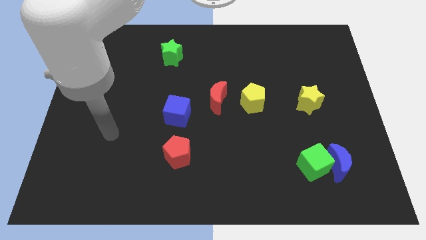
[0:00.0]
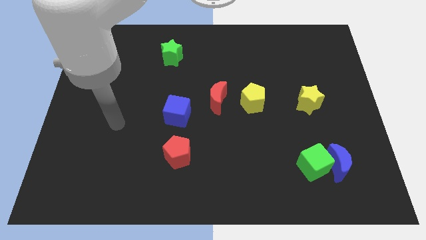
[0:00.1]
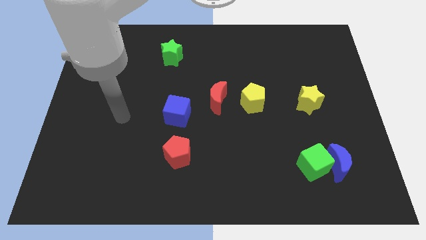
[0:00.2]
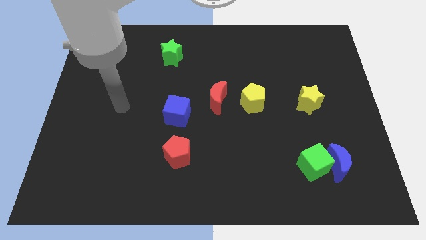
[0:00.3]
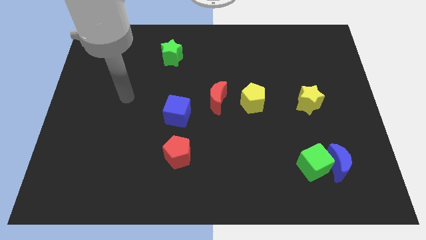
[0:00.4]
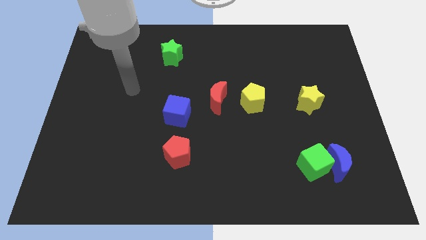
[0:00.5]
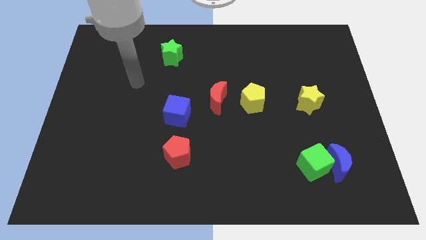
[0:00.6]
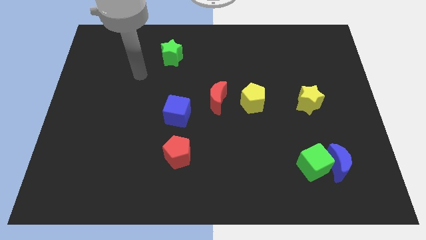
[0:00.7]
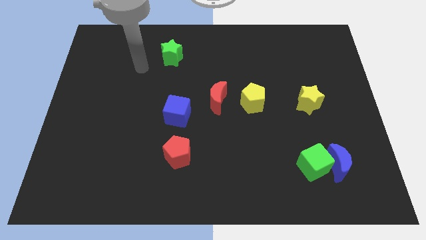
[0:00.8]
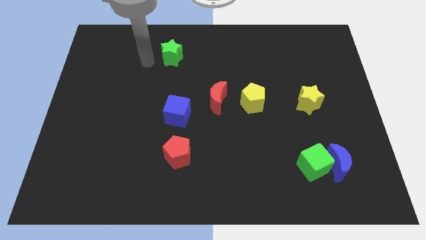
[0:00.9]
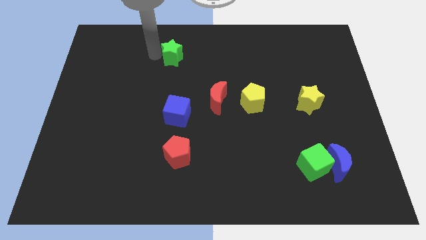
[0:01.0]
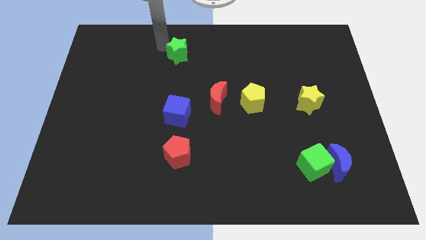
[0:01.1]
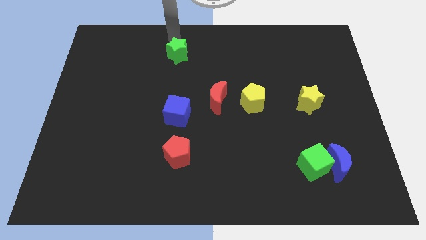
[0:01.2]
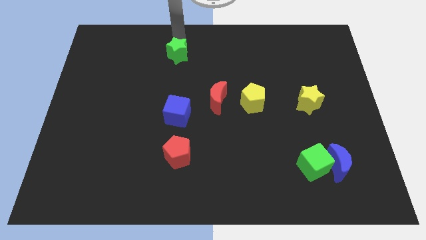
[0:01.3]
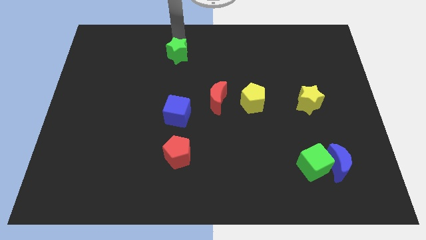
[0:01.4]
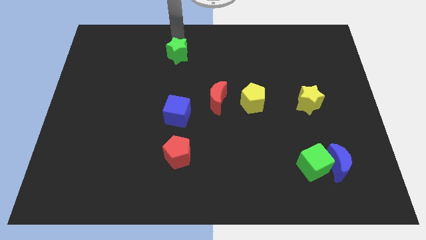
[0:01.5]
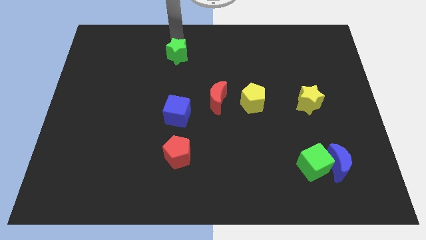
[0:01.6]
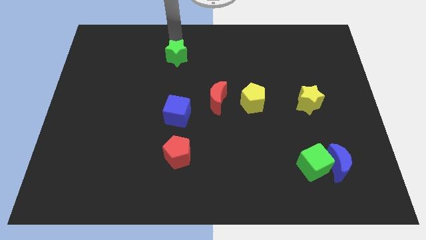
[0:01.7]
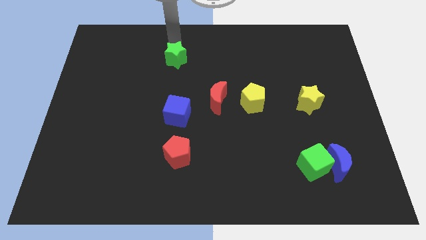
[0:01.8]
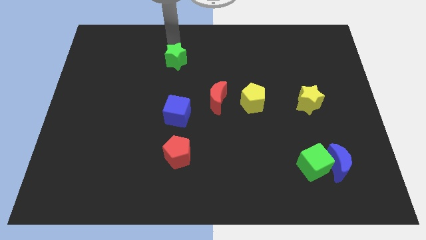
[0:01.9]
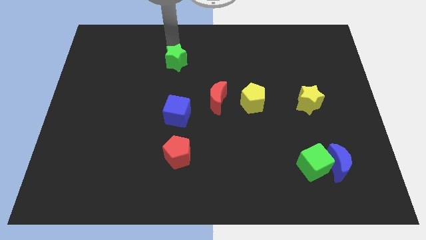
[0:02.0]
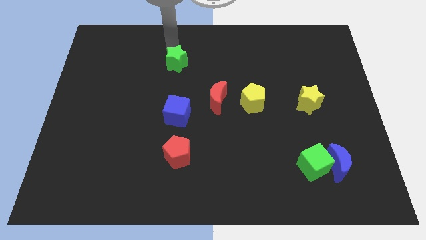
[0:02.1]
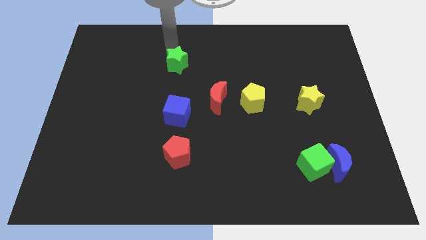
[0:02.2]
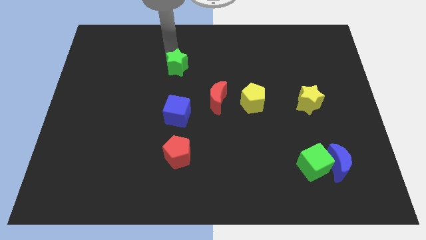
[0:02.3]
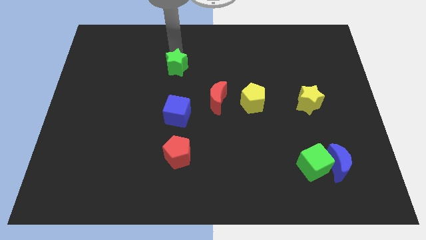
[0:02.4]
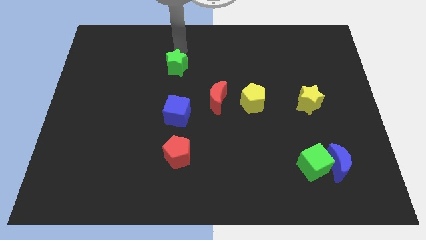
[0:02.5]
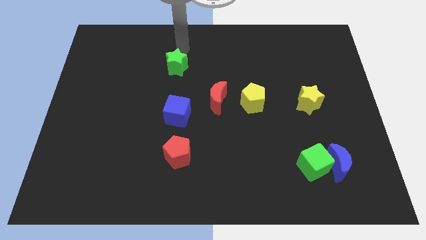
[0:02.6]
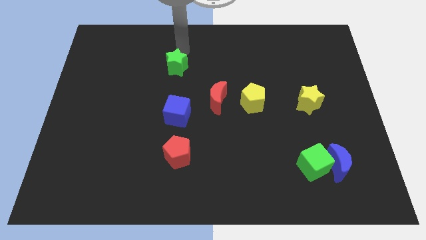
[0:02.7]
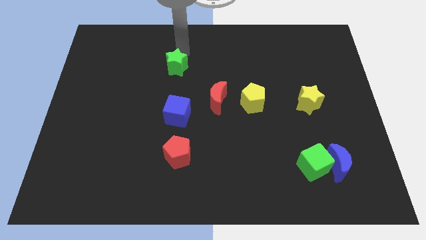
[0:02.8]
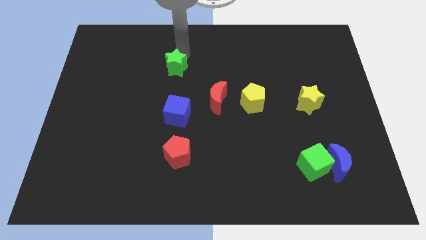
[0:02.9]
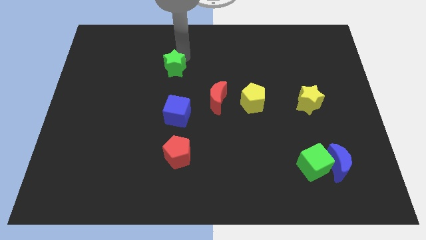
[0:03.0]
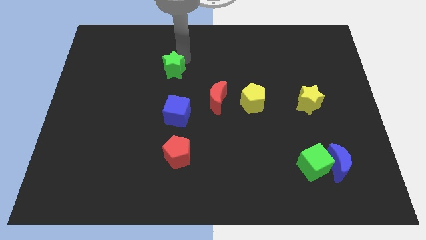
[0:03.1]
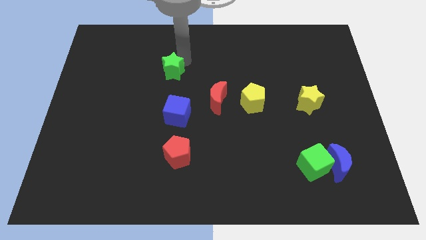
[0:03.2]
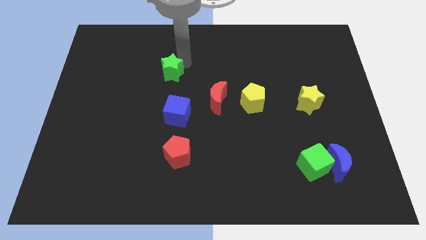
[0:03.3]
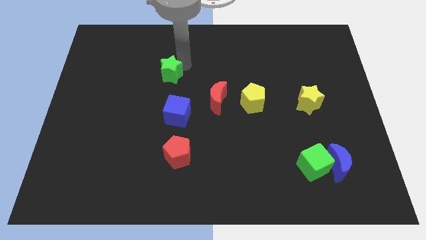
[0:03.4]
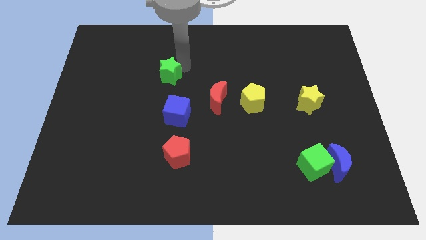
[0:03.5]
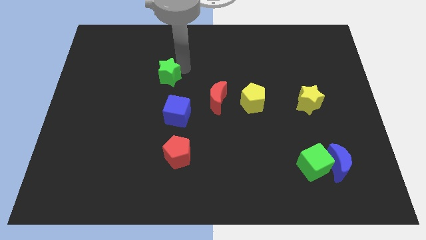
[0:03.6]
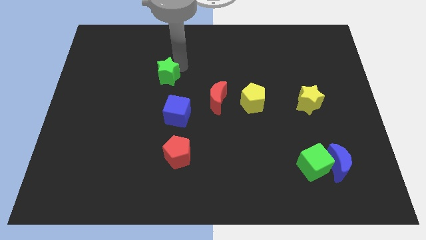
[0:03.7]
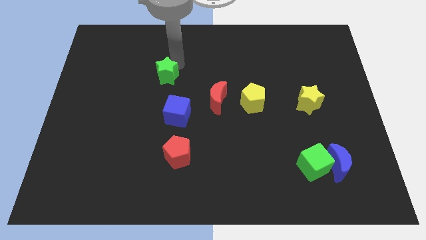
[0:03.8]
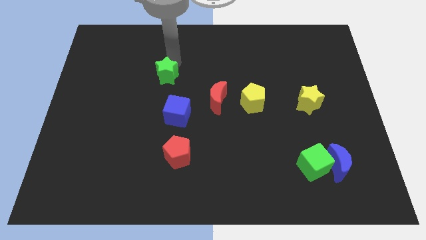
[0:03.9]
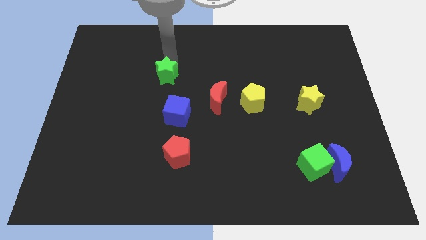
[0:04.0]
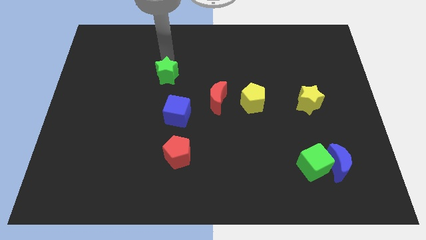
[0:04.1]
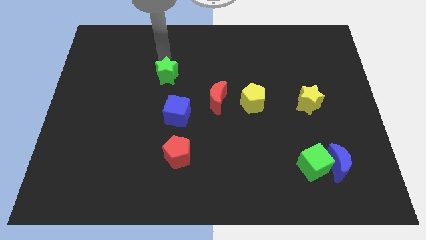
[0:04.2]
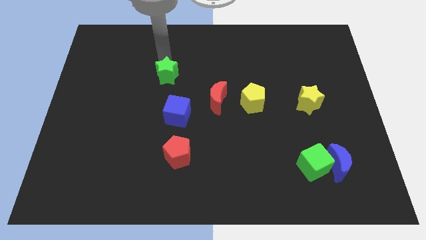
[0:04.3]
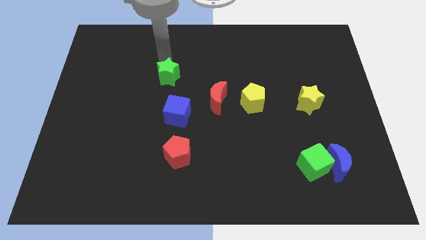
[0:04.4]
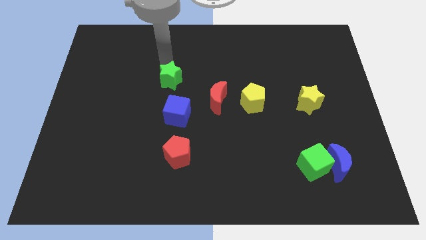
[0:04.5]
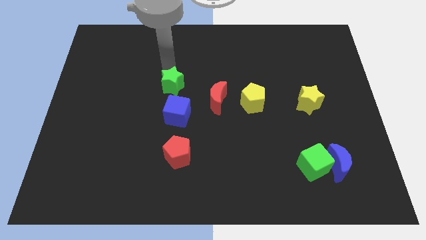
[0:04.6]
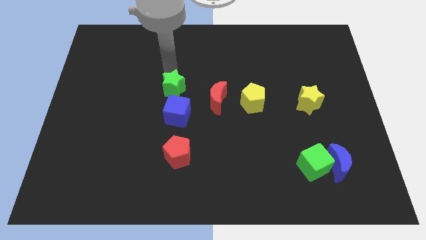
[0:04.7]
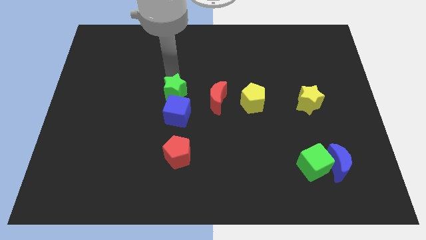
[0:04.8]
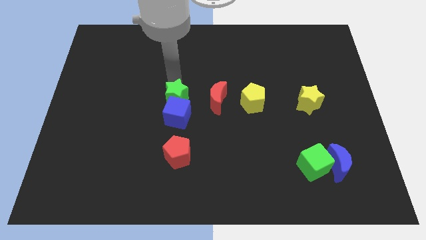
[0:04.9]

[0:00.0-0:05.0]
slide the green star close to the blue cube

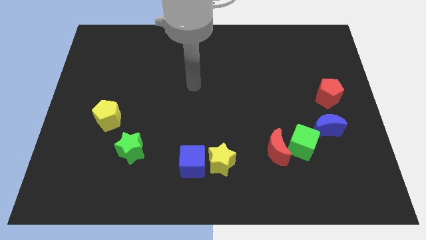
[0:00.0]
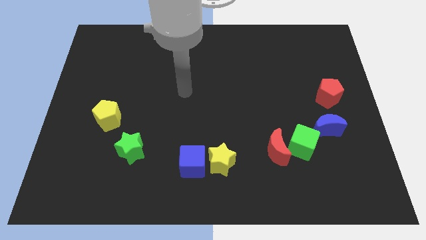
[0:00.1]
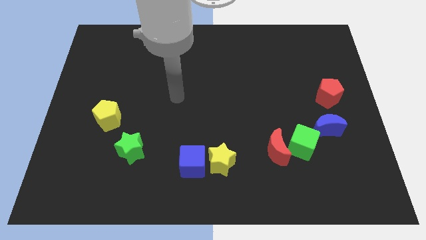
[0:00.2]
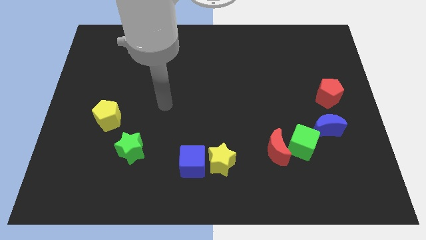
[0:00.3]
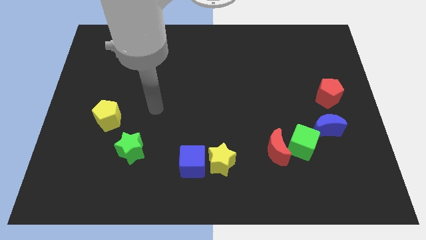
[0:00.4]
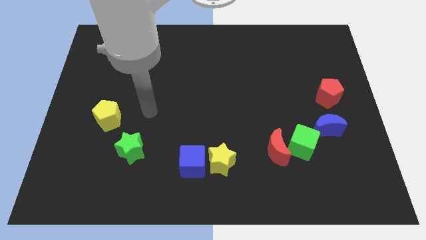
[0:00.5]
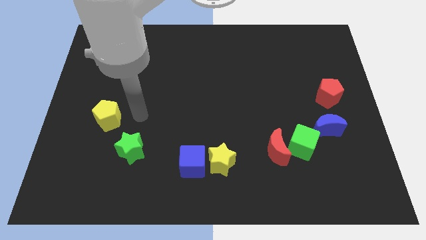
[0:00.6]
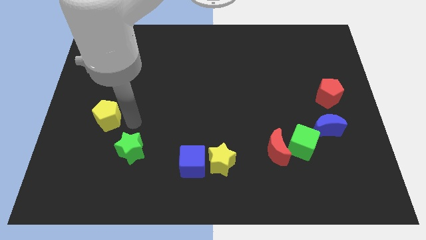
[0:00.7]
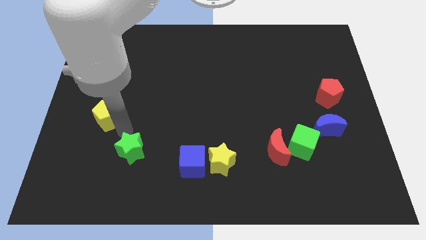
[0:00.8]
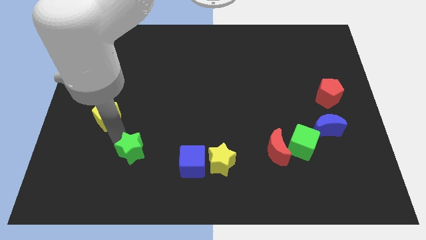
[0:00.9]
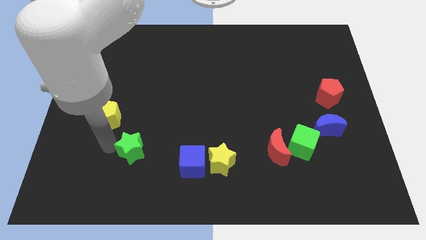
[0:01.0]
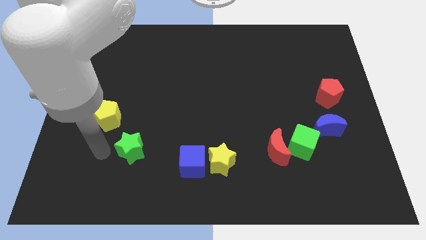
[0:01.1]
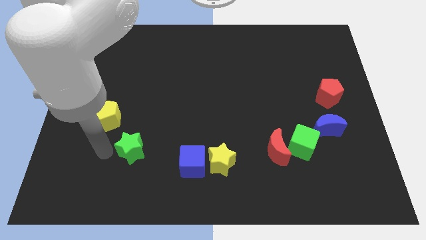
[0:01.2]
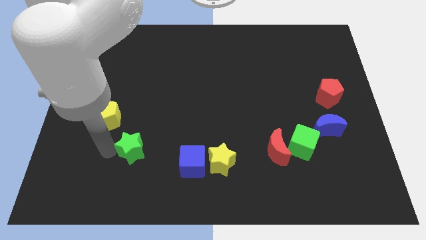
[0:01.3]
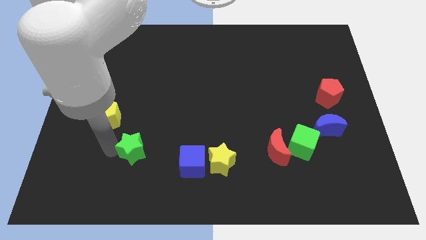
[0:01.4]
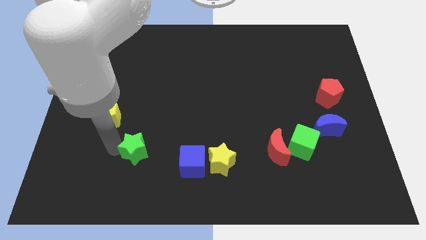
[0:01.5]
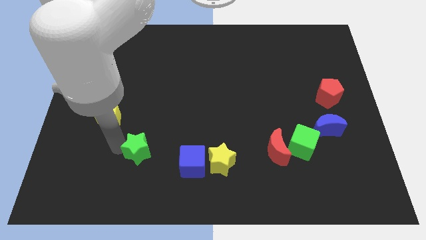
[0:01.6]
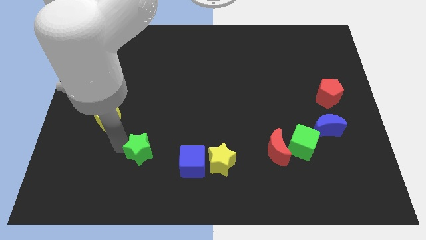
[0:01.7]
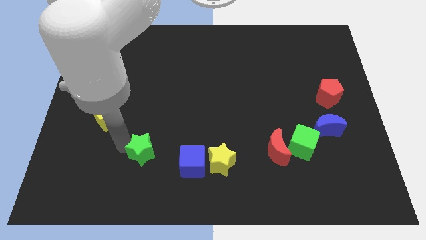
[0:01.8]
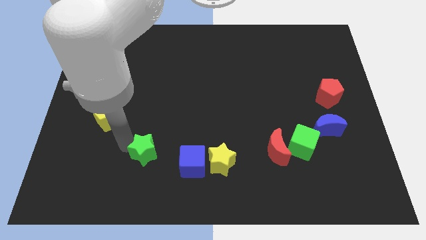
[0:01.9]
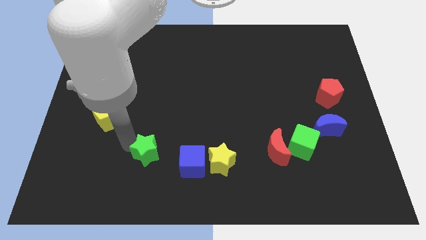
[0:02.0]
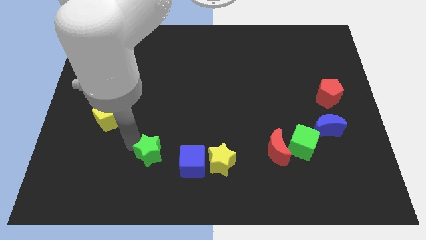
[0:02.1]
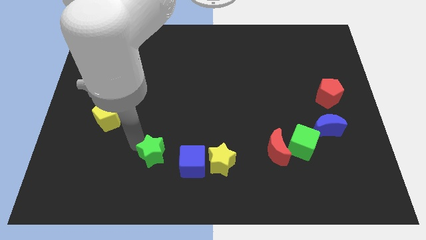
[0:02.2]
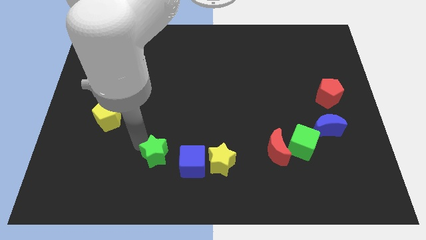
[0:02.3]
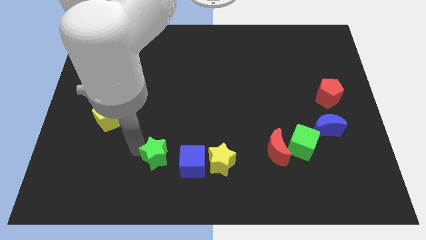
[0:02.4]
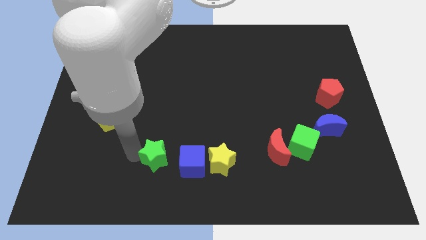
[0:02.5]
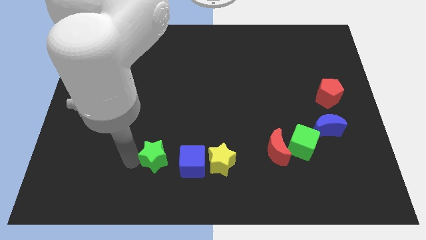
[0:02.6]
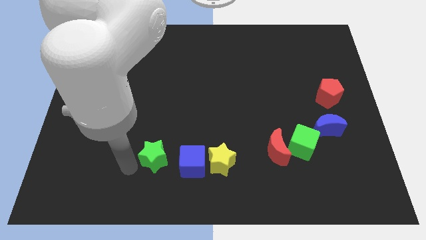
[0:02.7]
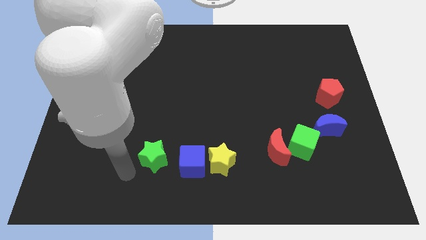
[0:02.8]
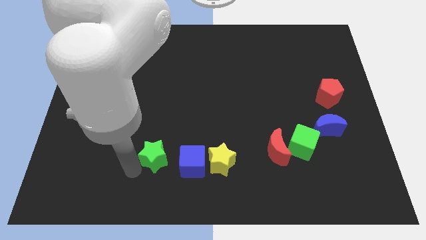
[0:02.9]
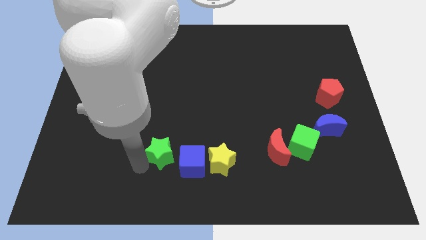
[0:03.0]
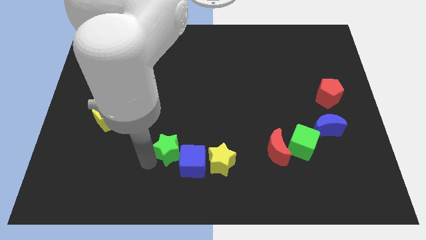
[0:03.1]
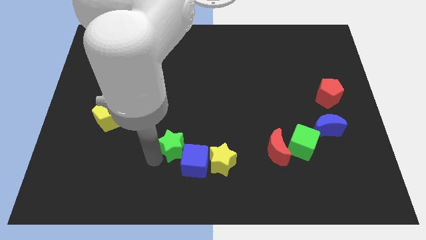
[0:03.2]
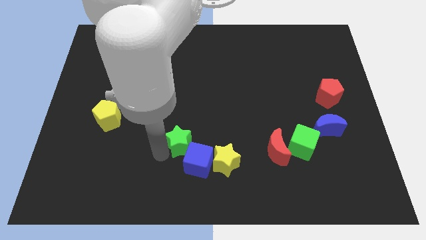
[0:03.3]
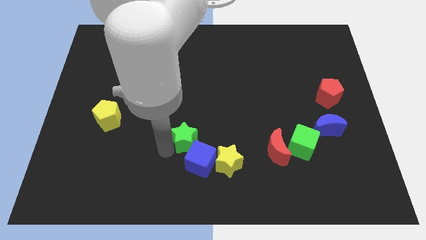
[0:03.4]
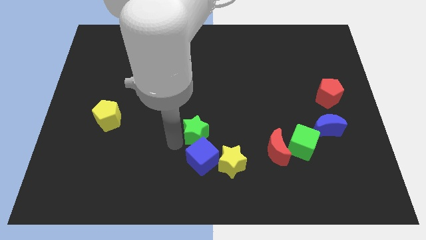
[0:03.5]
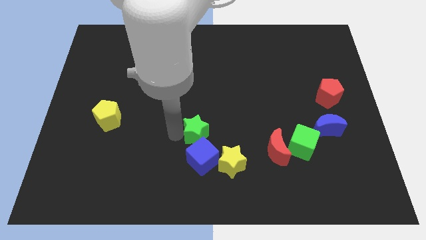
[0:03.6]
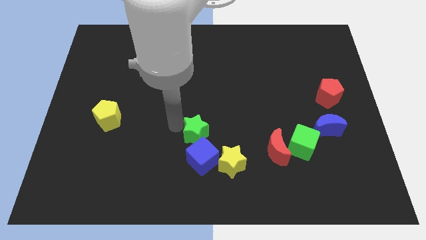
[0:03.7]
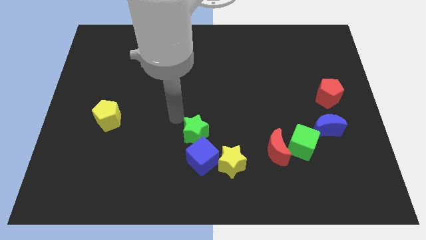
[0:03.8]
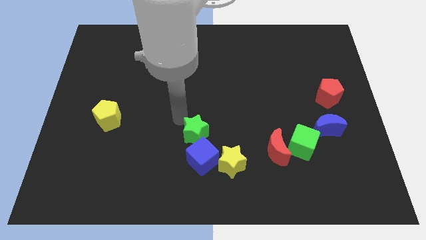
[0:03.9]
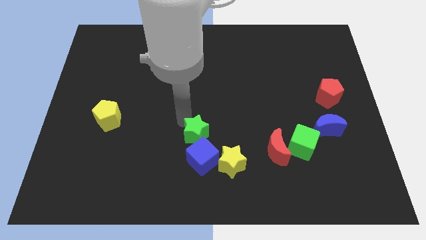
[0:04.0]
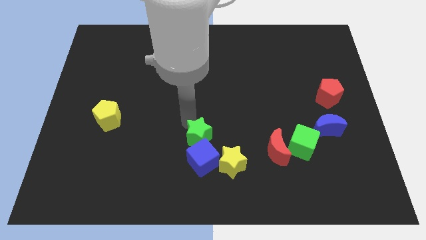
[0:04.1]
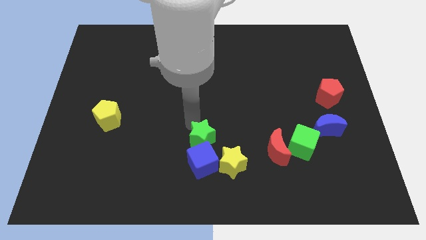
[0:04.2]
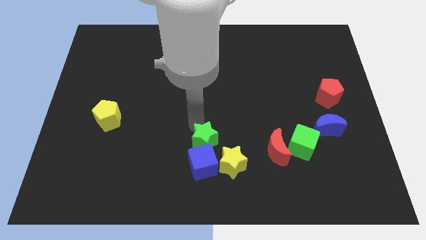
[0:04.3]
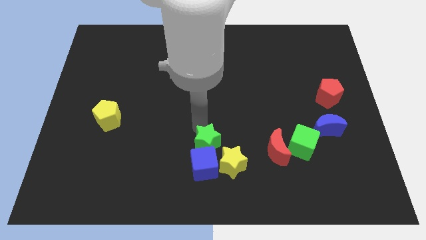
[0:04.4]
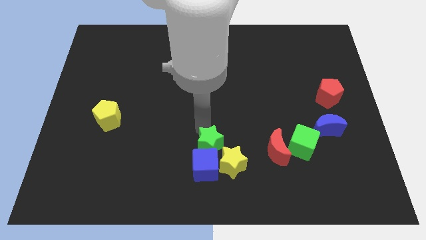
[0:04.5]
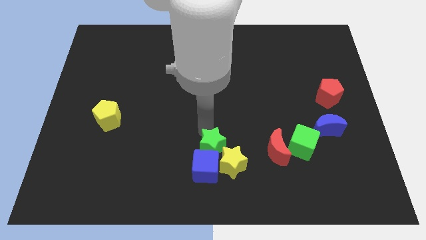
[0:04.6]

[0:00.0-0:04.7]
put the green star close to the yellow star
